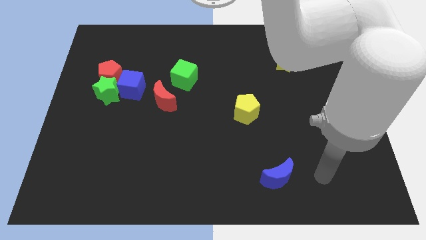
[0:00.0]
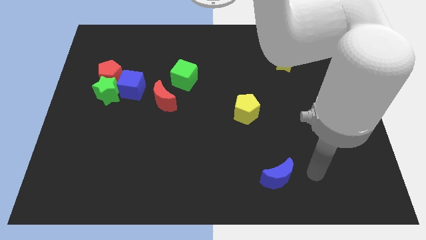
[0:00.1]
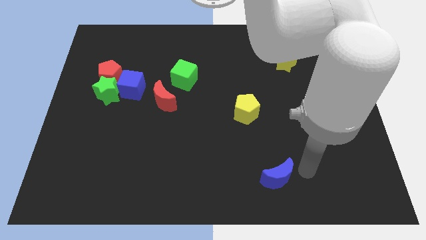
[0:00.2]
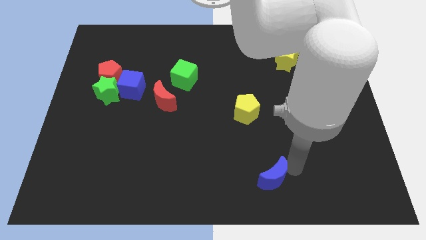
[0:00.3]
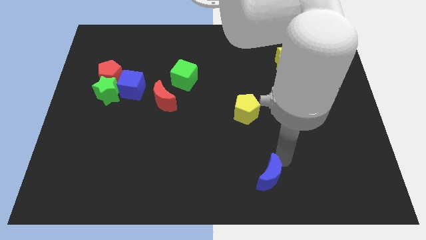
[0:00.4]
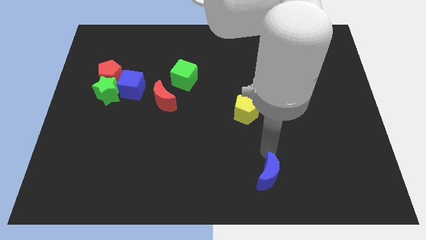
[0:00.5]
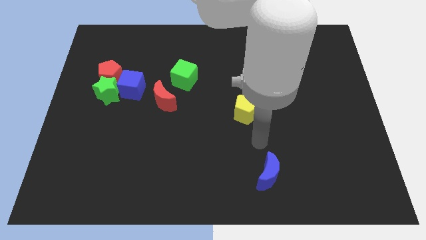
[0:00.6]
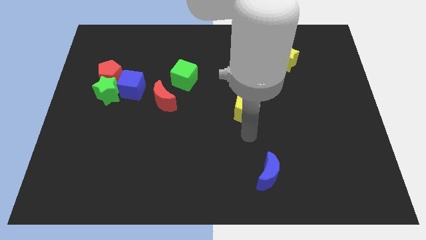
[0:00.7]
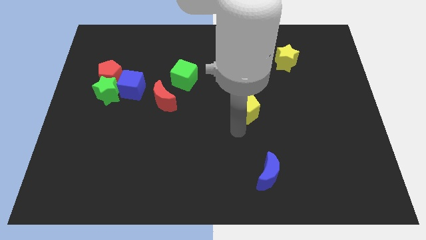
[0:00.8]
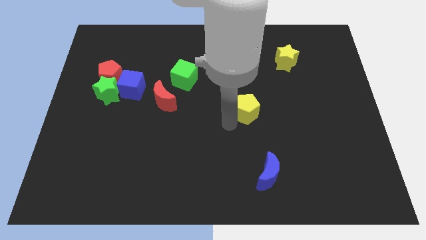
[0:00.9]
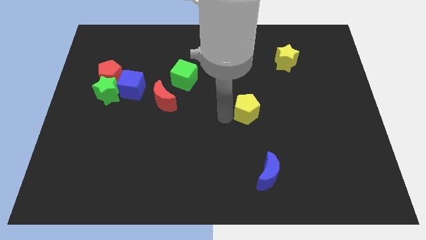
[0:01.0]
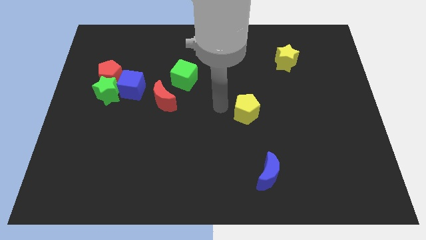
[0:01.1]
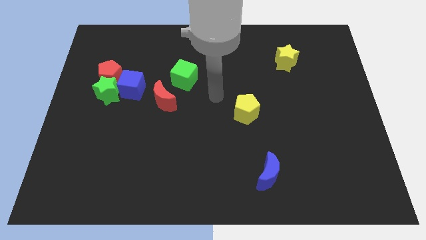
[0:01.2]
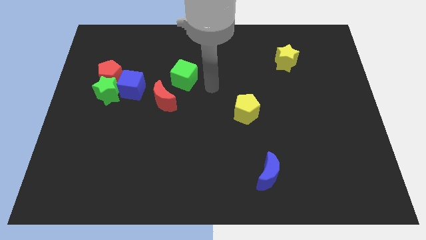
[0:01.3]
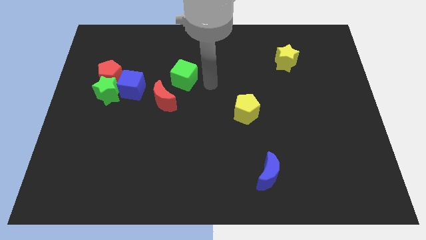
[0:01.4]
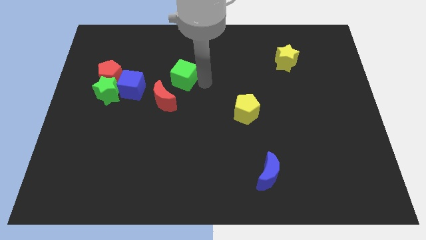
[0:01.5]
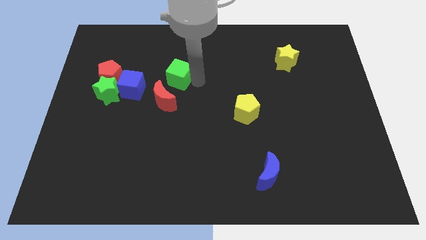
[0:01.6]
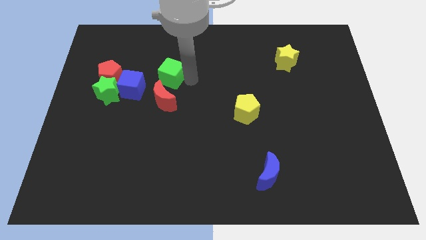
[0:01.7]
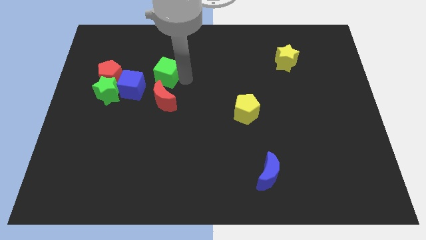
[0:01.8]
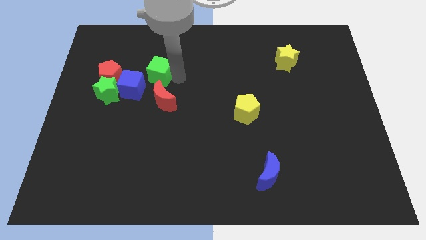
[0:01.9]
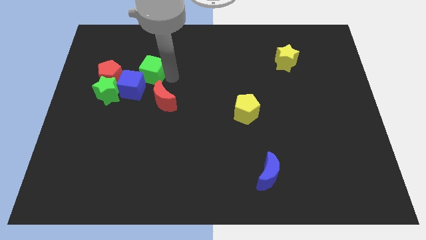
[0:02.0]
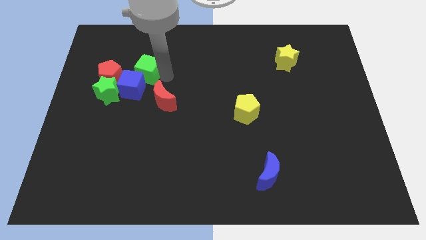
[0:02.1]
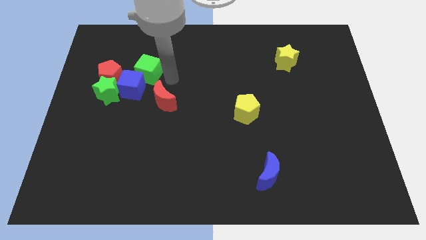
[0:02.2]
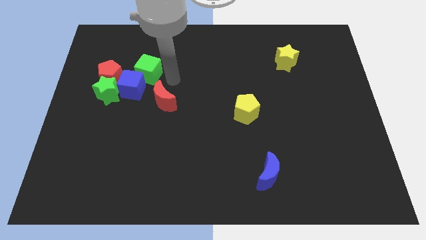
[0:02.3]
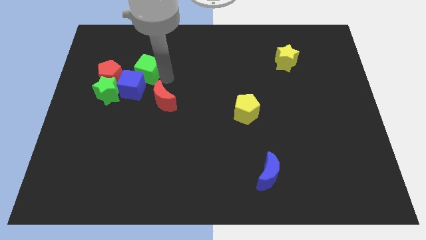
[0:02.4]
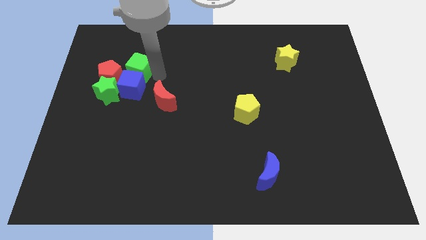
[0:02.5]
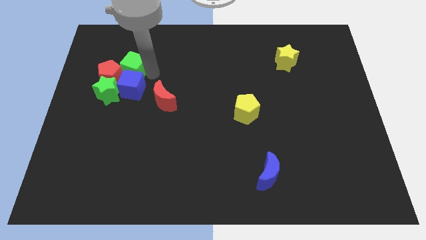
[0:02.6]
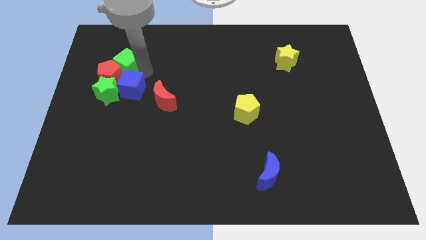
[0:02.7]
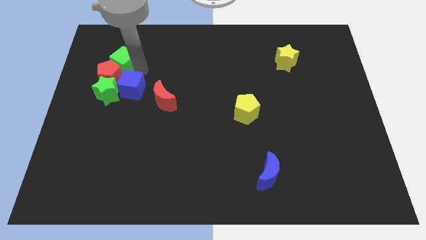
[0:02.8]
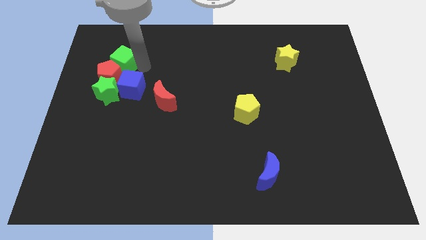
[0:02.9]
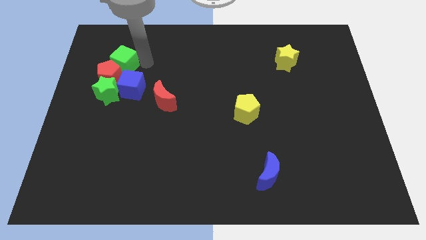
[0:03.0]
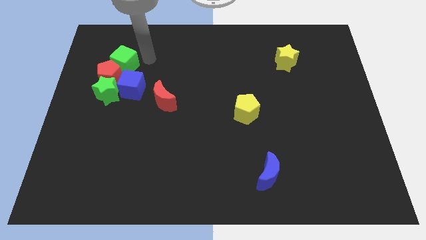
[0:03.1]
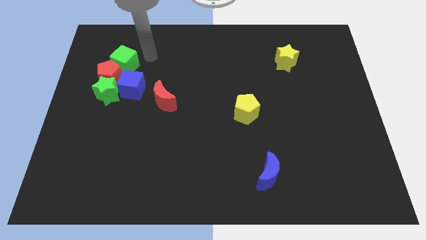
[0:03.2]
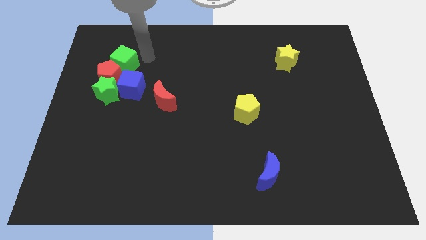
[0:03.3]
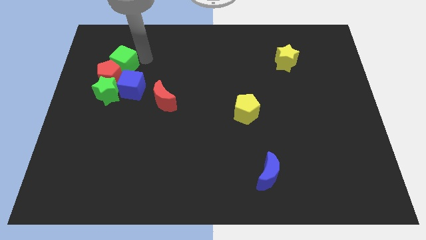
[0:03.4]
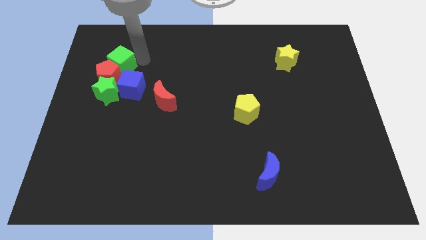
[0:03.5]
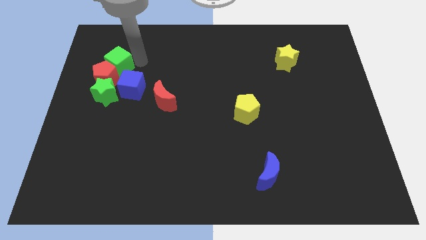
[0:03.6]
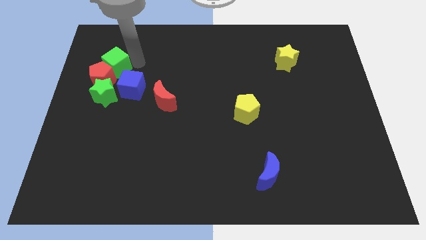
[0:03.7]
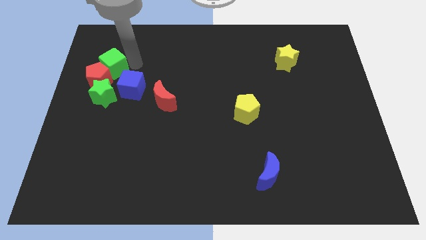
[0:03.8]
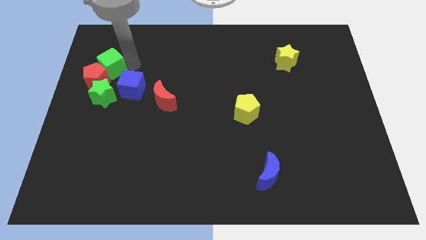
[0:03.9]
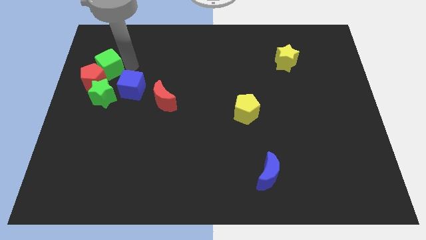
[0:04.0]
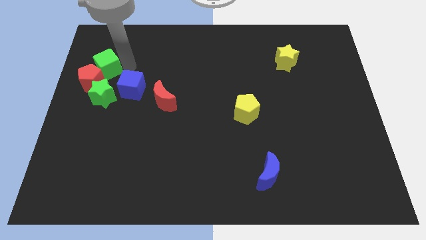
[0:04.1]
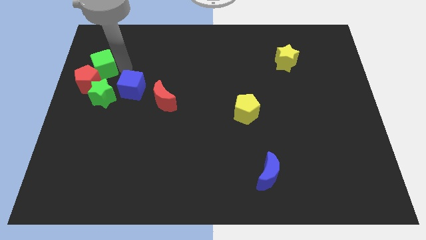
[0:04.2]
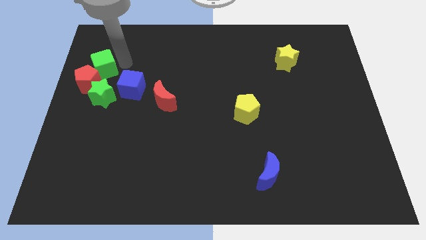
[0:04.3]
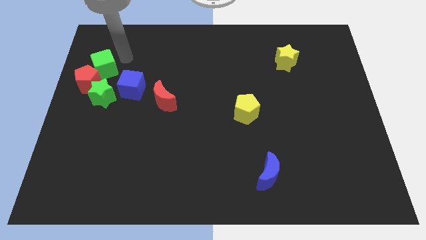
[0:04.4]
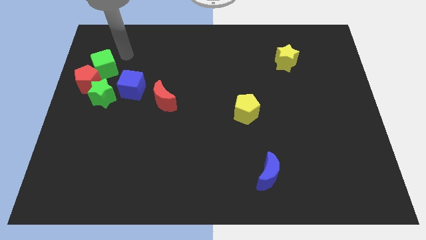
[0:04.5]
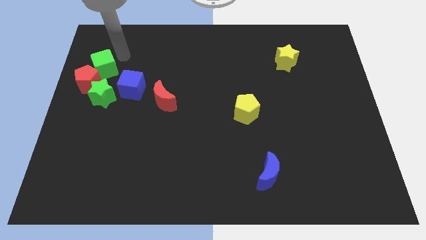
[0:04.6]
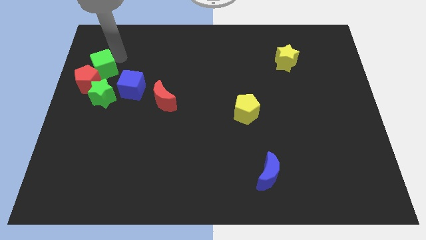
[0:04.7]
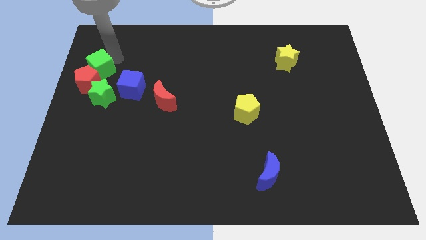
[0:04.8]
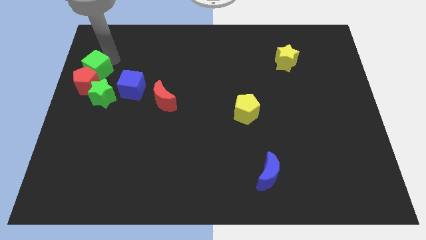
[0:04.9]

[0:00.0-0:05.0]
push the green cube to the left side

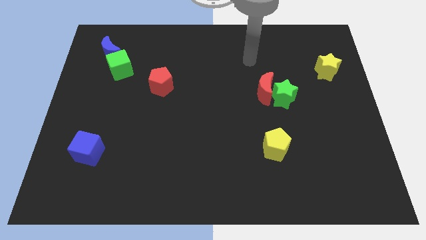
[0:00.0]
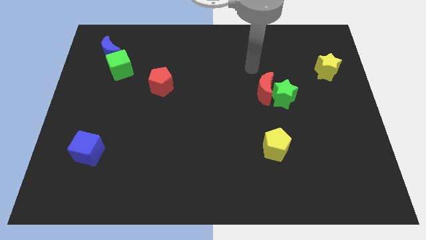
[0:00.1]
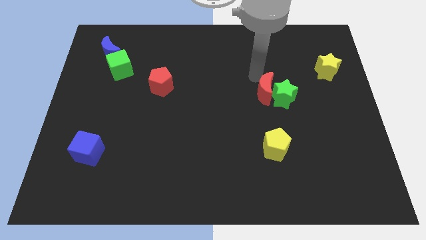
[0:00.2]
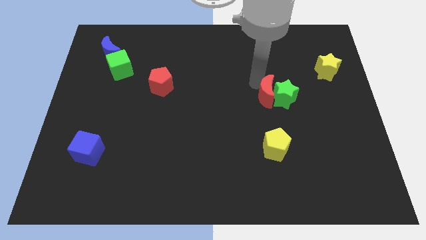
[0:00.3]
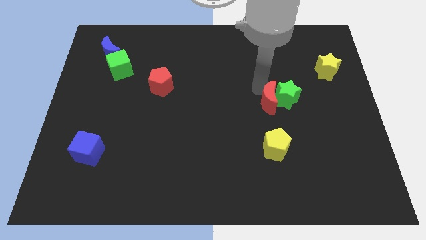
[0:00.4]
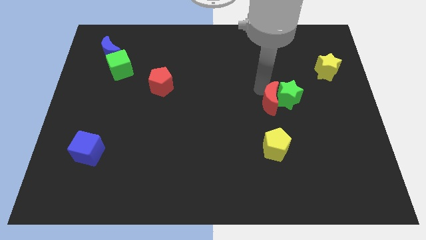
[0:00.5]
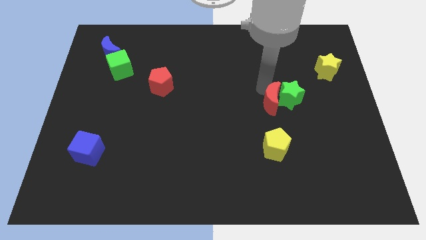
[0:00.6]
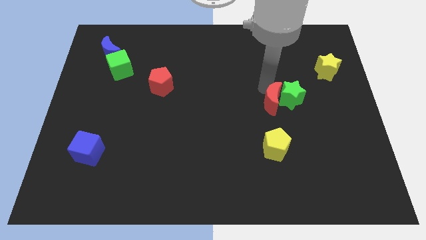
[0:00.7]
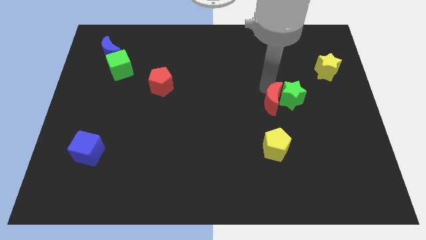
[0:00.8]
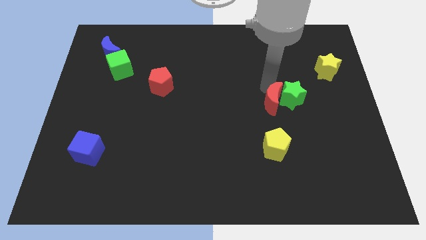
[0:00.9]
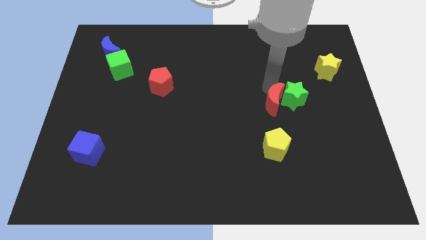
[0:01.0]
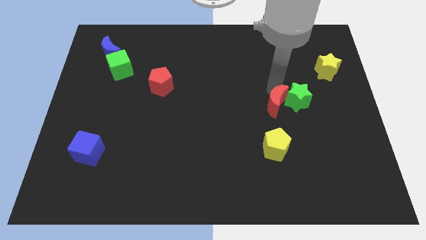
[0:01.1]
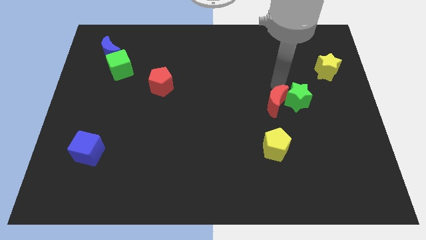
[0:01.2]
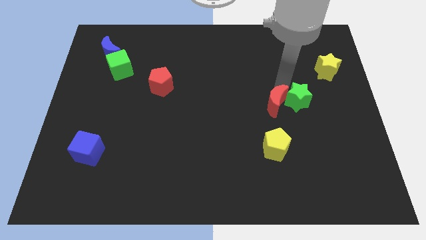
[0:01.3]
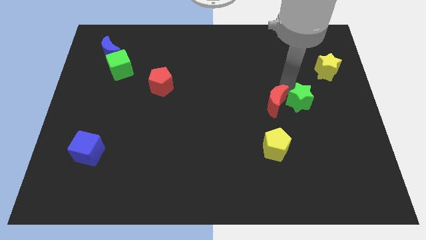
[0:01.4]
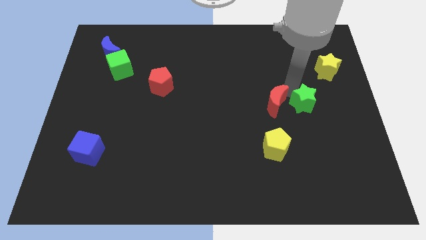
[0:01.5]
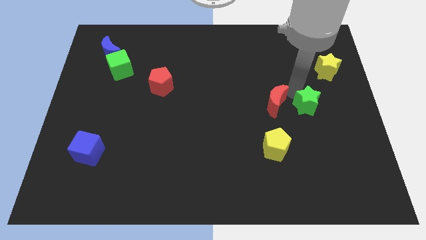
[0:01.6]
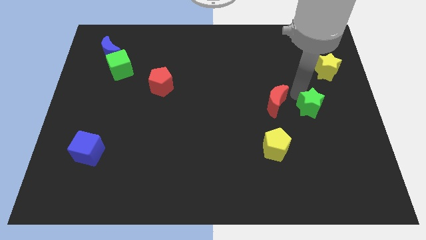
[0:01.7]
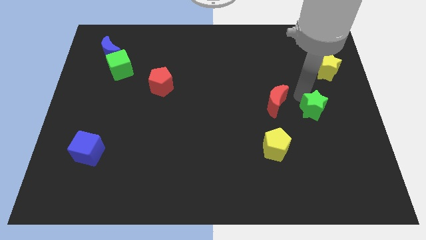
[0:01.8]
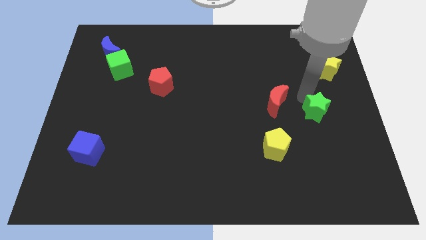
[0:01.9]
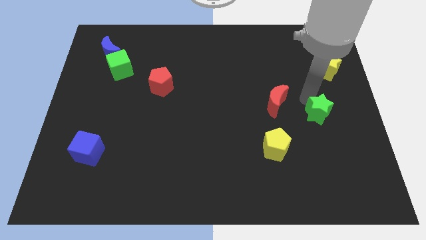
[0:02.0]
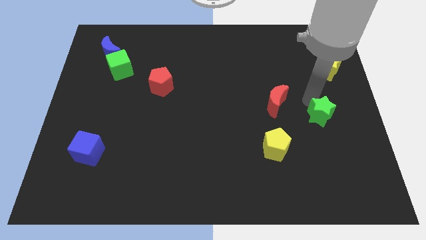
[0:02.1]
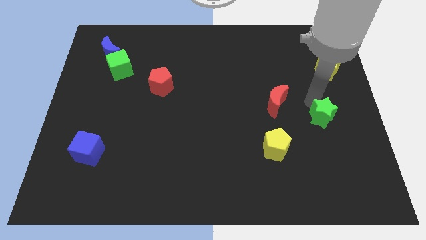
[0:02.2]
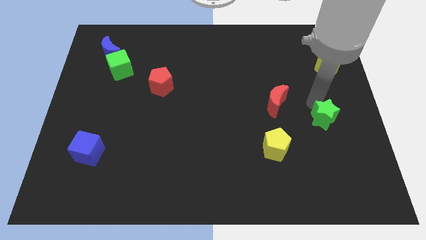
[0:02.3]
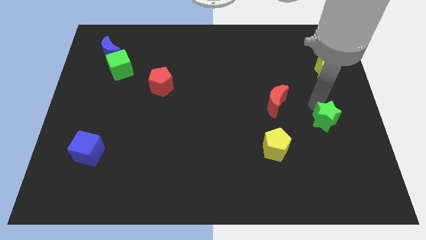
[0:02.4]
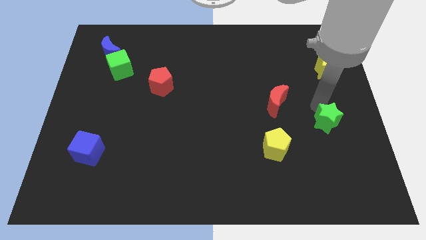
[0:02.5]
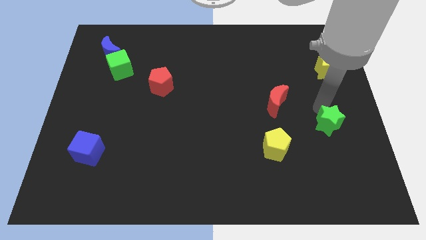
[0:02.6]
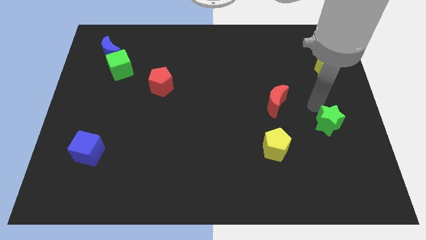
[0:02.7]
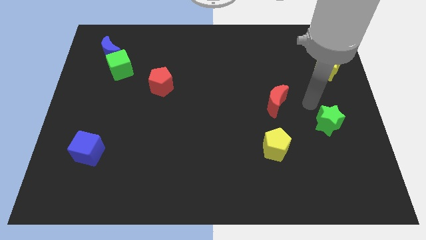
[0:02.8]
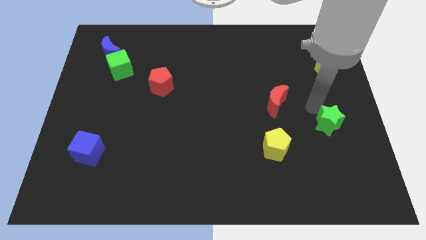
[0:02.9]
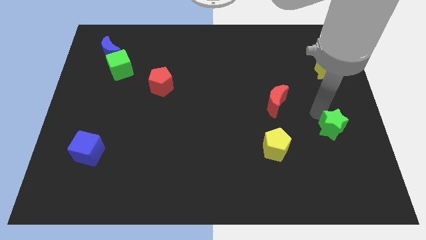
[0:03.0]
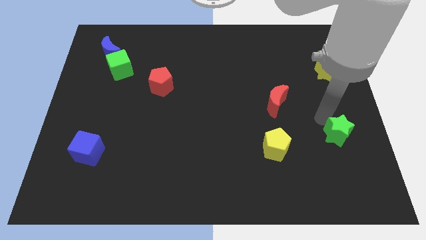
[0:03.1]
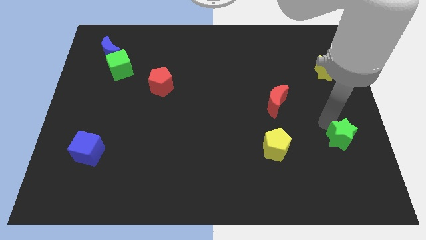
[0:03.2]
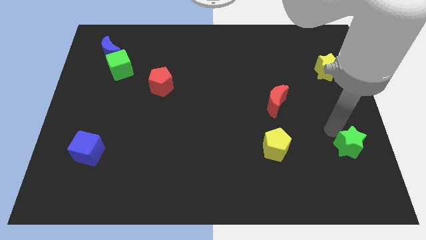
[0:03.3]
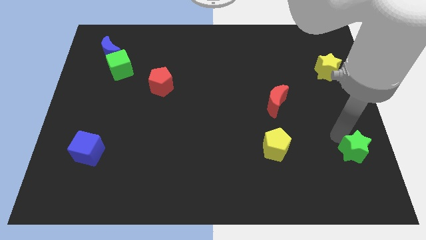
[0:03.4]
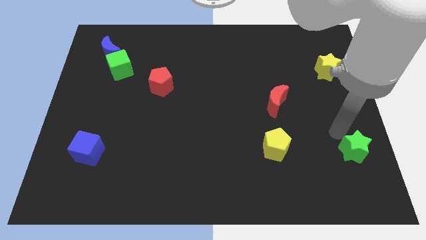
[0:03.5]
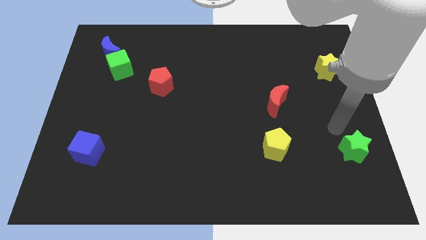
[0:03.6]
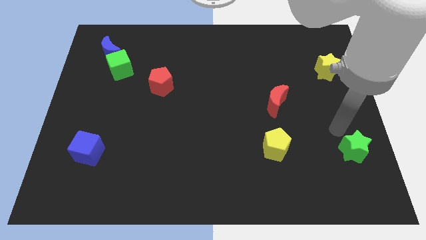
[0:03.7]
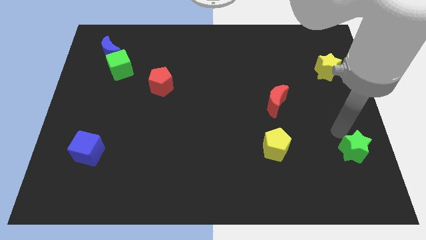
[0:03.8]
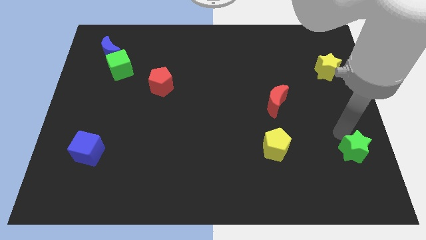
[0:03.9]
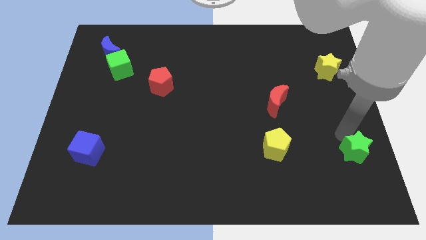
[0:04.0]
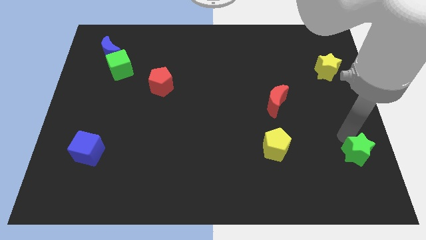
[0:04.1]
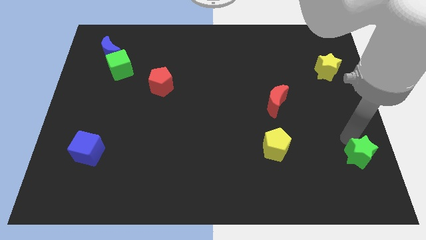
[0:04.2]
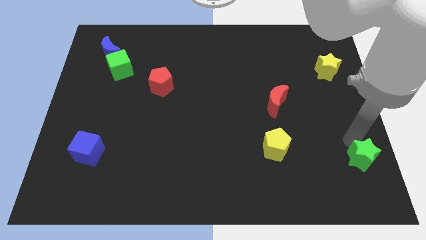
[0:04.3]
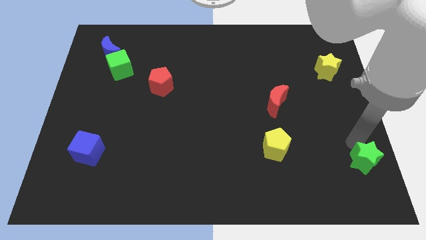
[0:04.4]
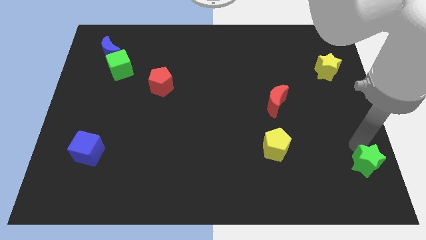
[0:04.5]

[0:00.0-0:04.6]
push the green star to the bottom right corner
